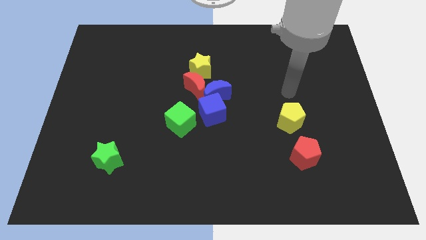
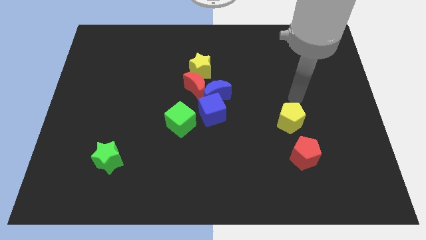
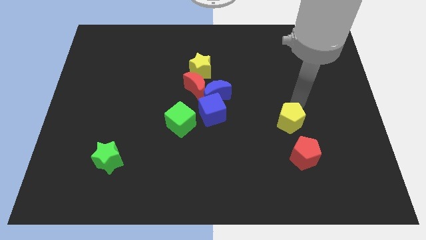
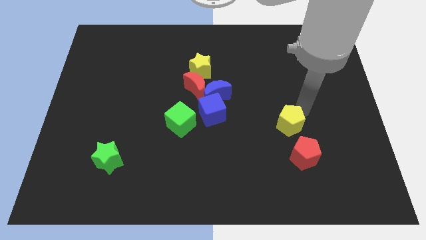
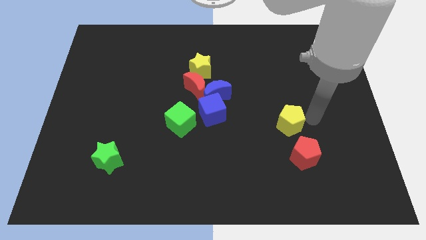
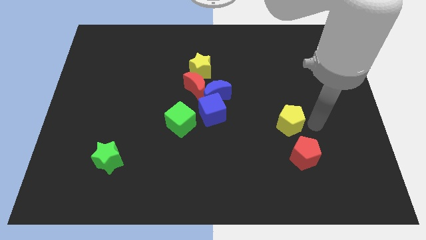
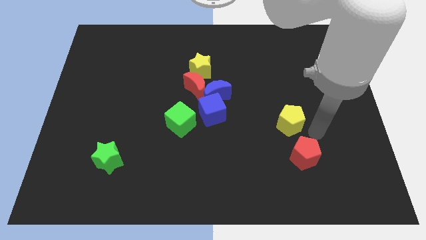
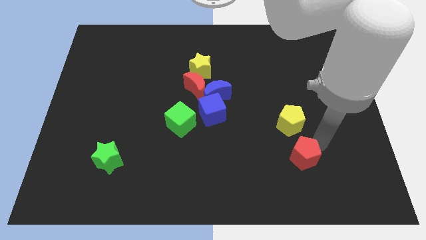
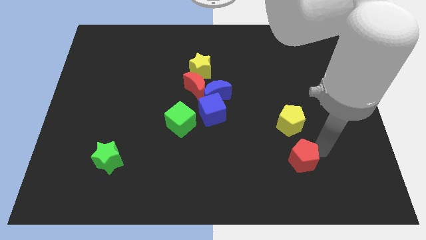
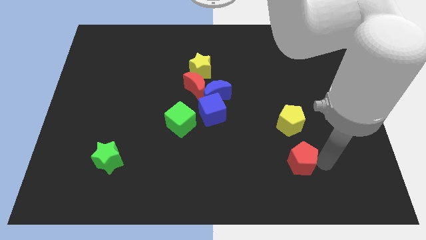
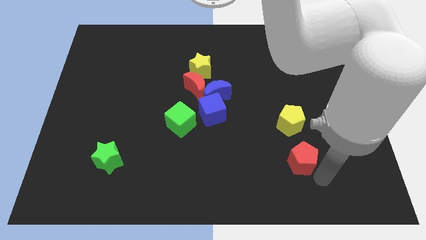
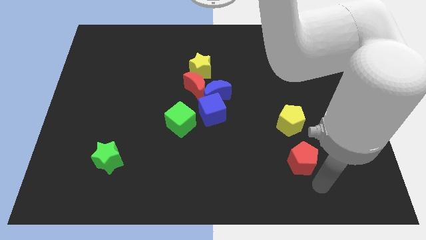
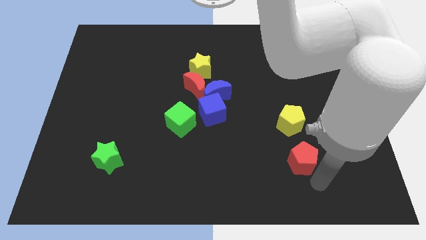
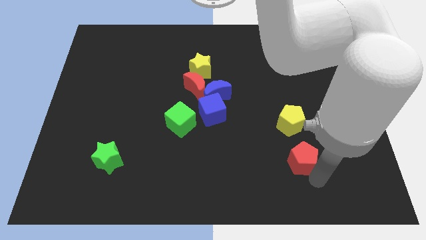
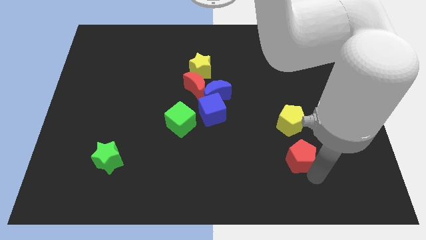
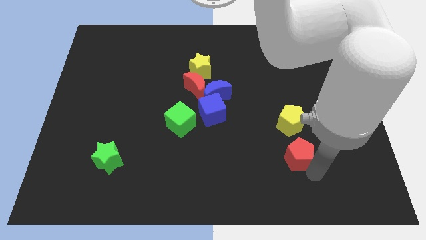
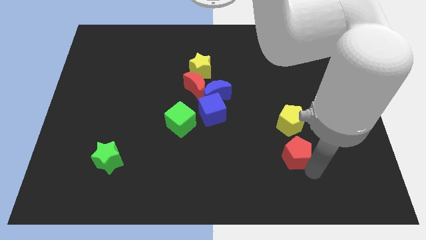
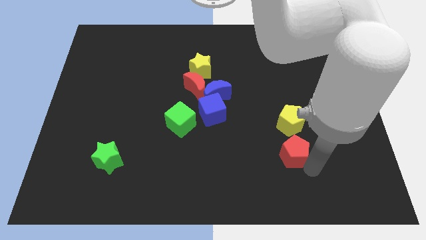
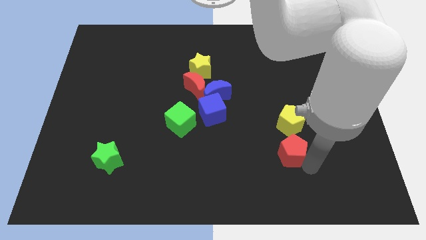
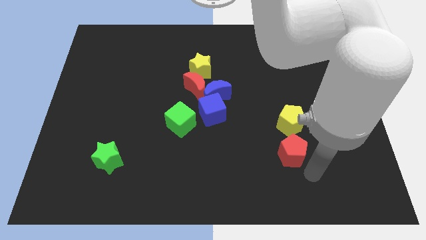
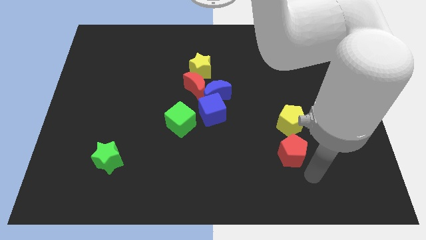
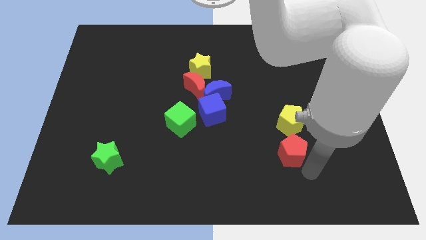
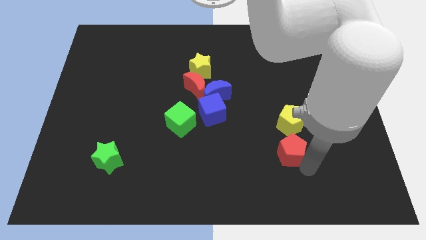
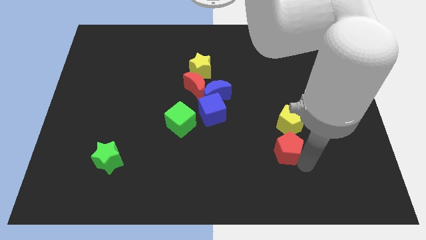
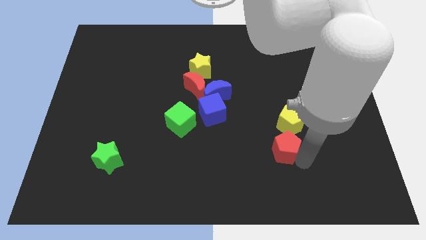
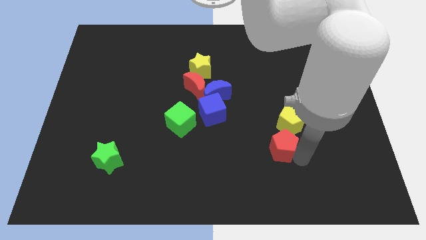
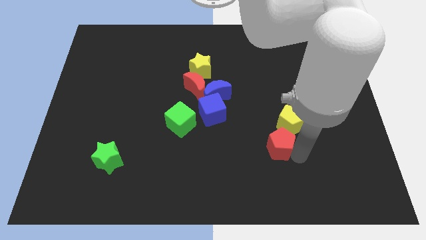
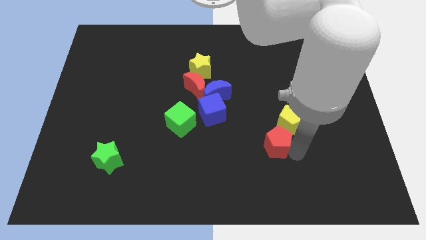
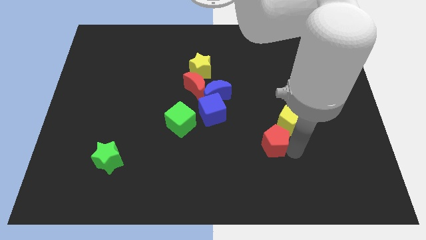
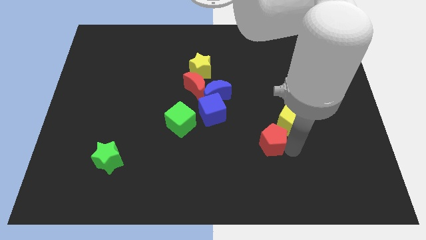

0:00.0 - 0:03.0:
slide the red pentagon a little up and then left

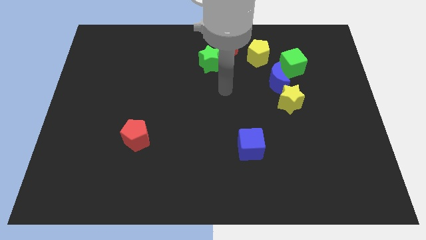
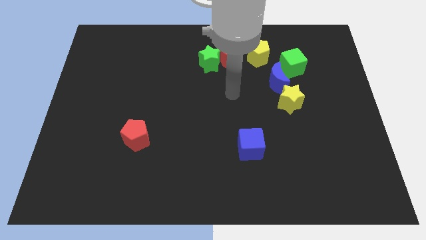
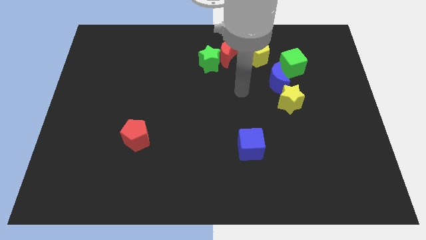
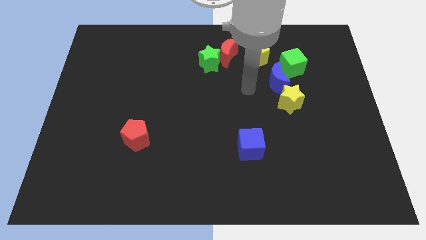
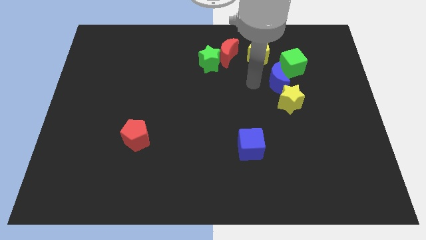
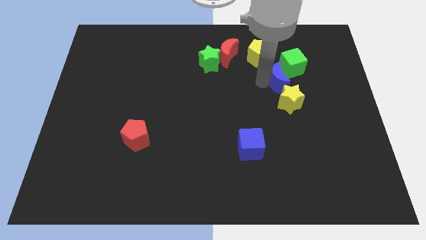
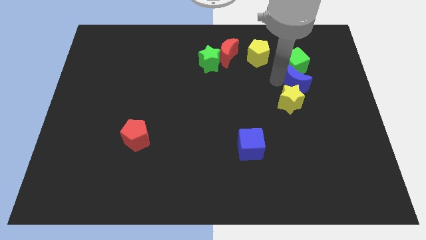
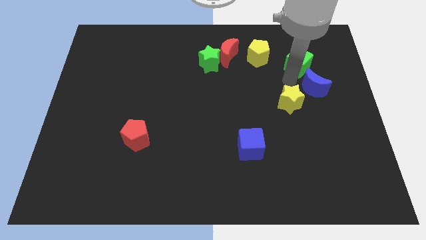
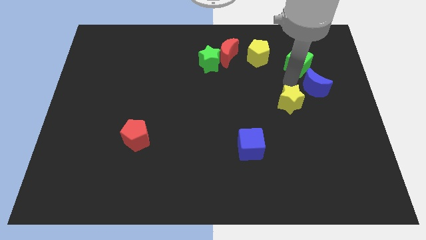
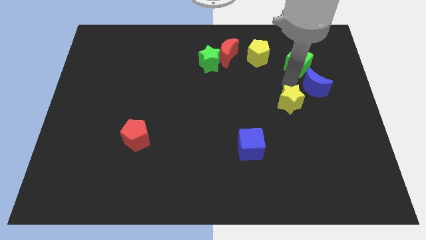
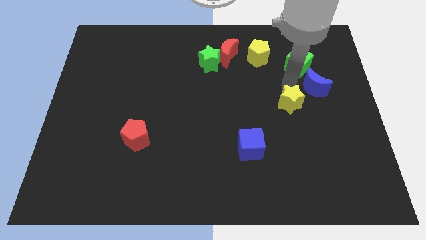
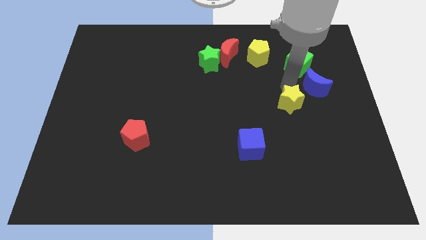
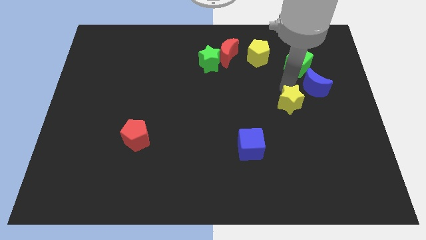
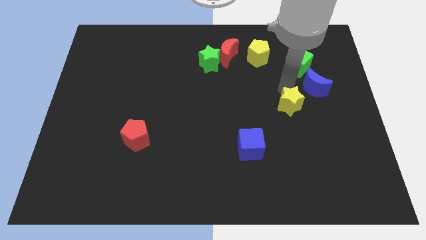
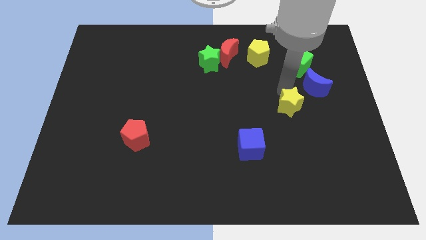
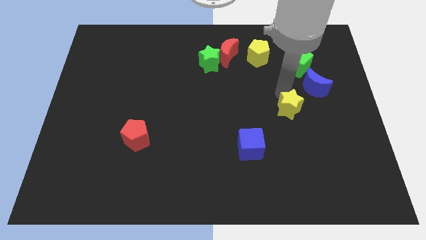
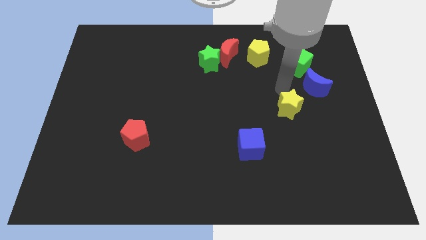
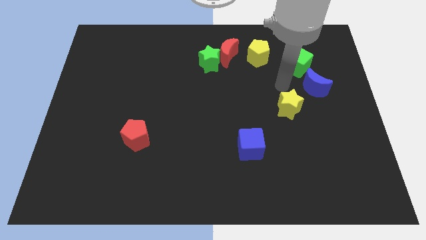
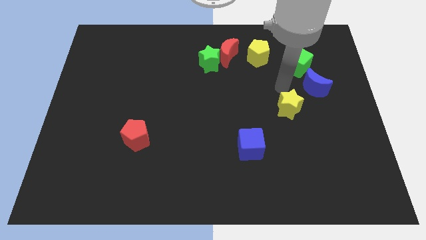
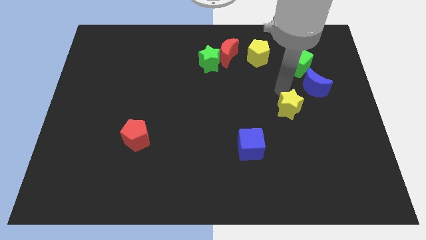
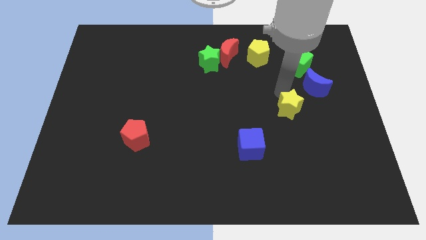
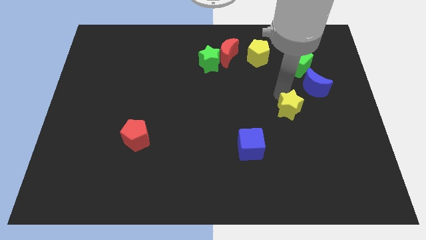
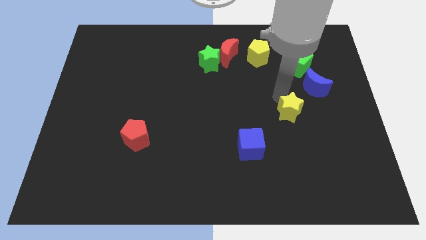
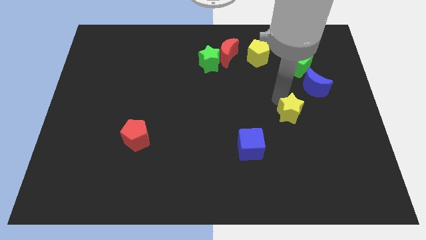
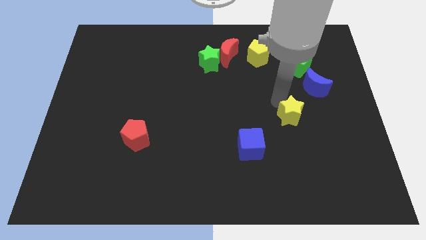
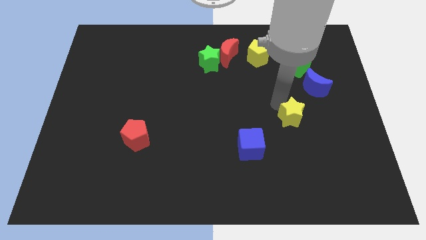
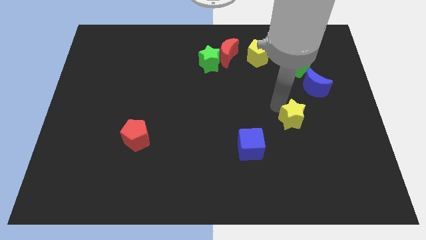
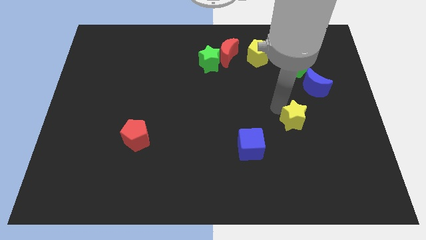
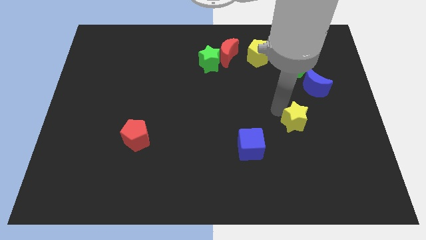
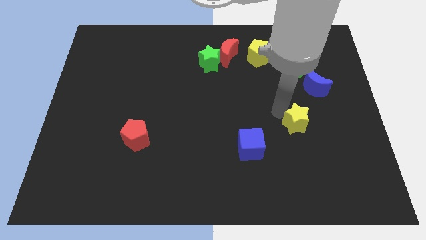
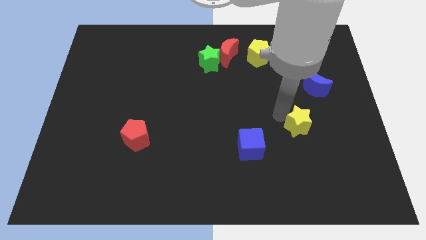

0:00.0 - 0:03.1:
slightly slide the yellow star downwards

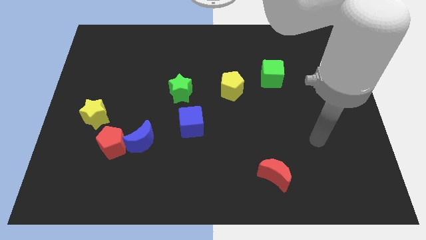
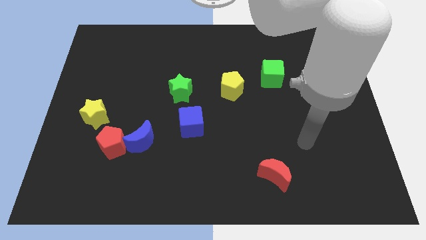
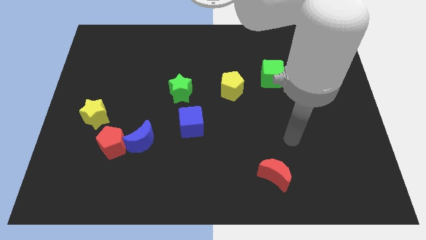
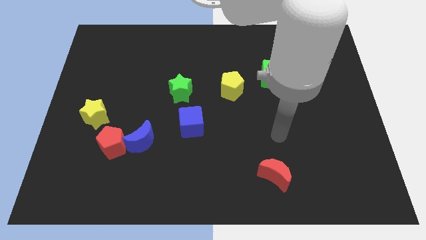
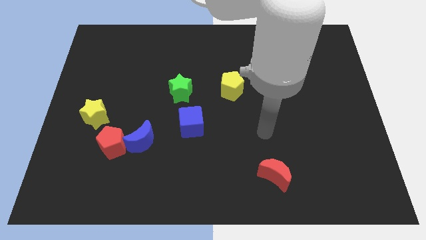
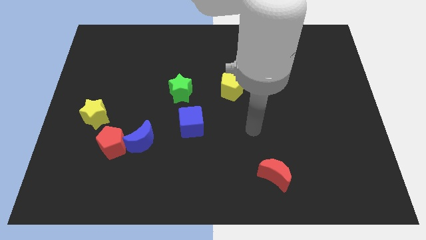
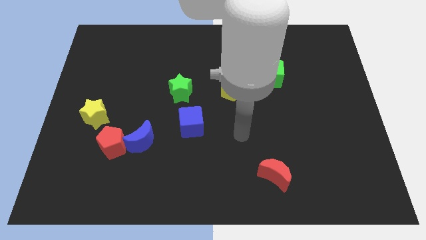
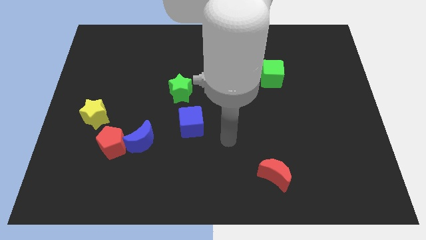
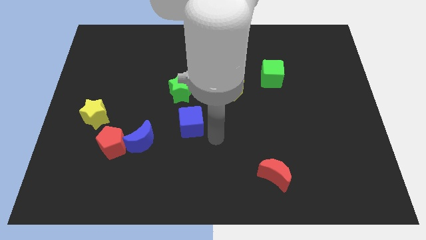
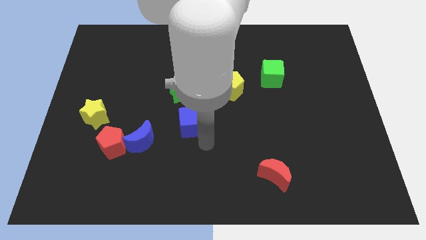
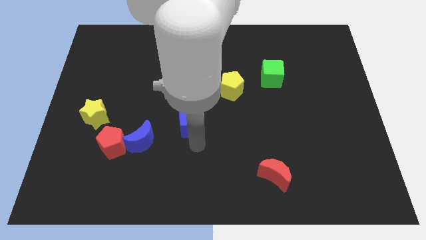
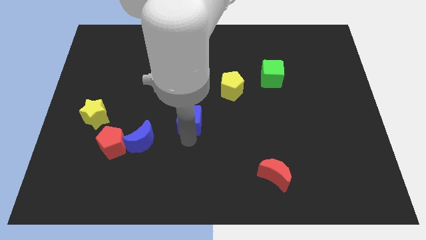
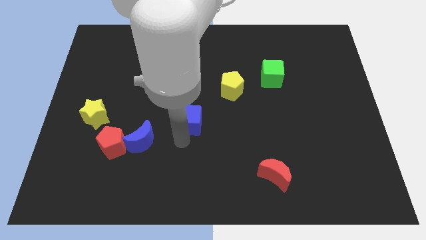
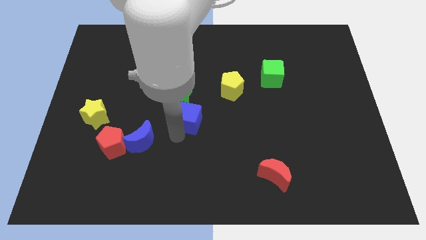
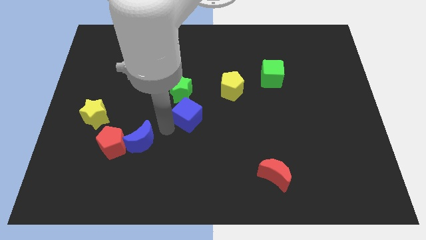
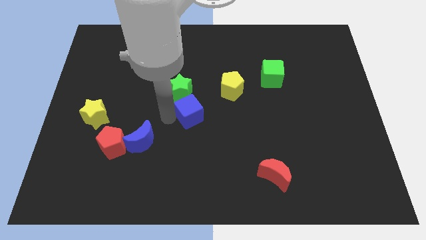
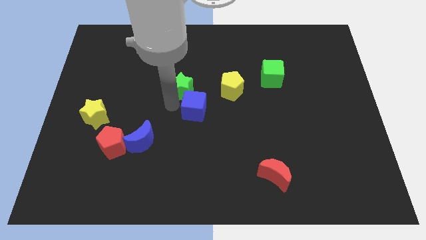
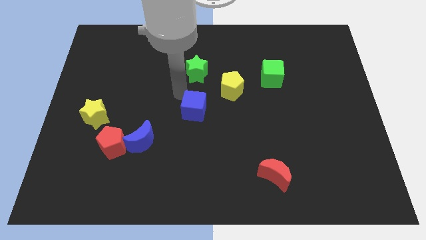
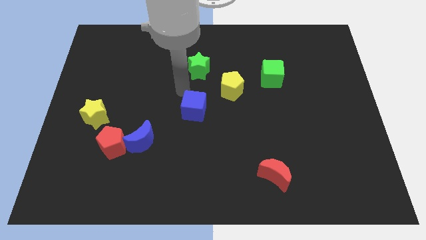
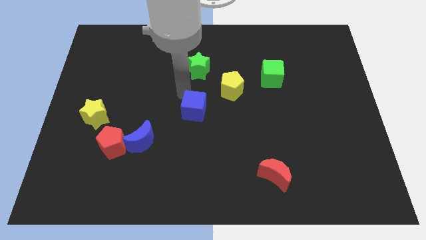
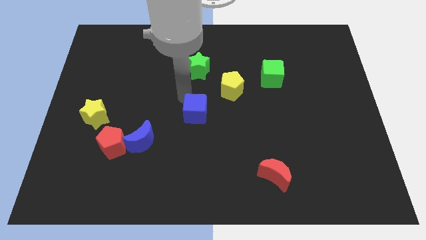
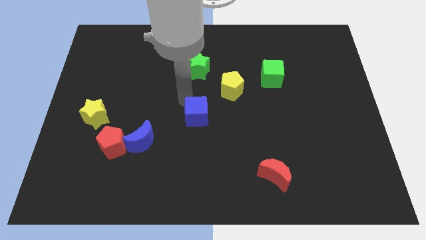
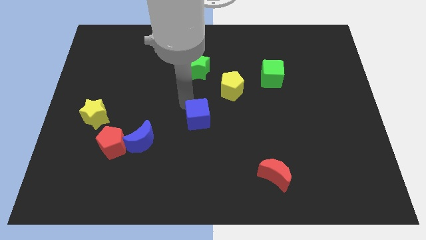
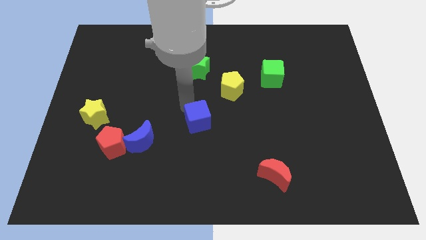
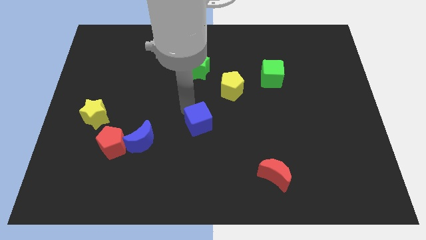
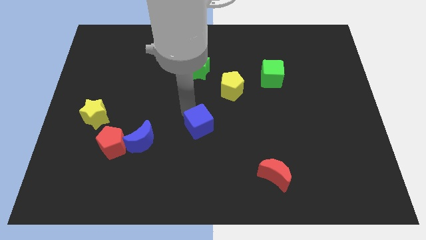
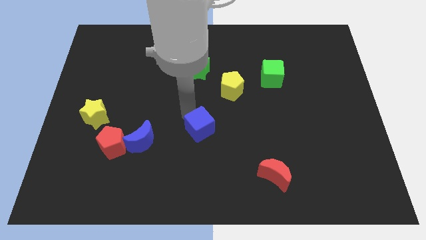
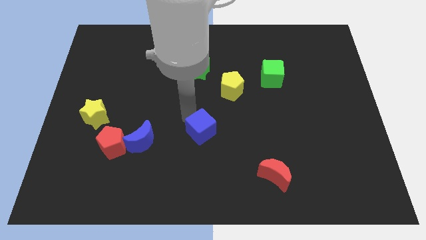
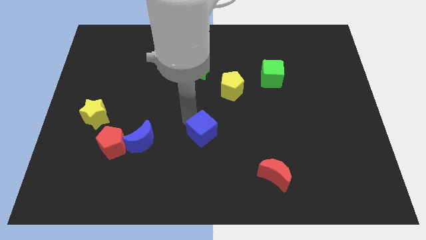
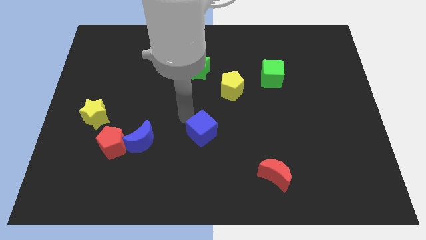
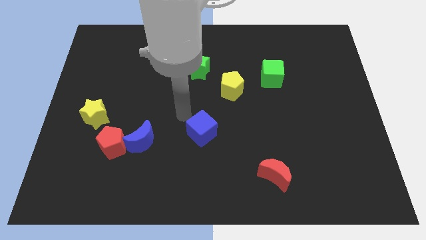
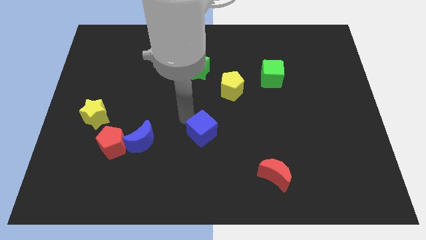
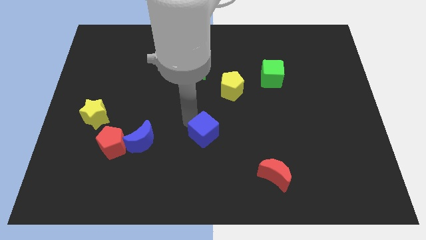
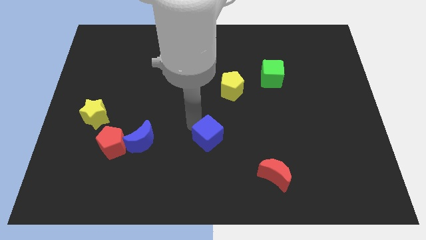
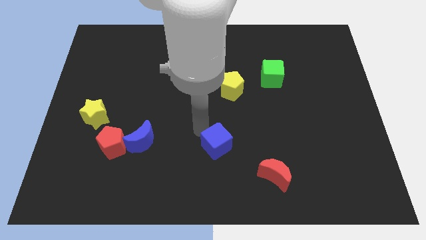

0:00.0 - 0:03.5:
slightly push the blue cube down and right
